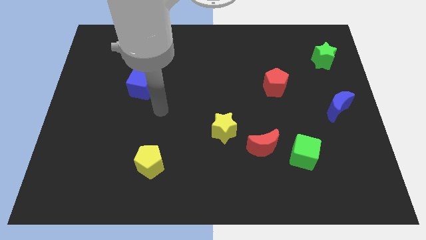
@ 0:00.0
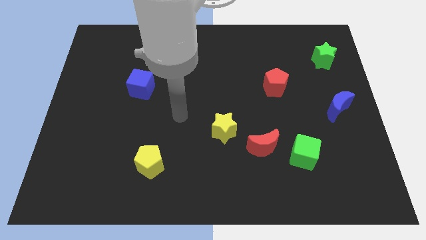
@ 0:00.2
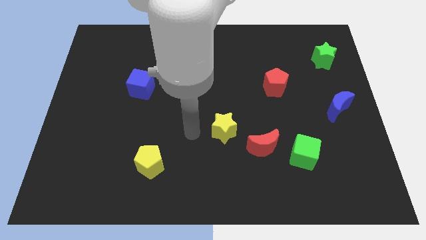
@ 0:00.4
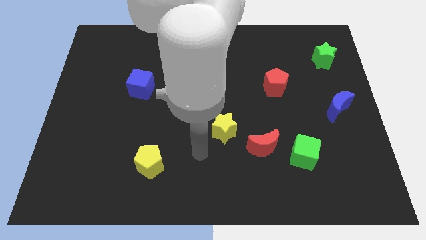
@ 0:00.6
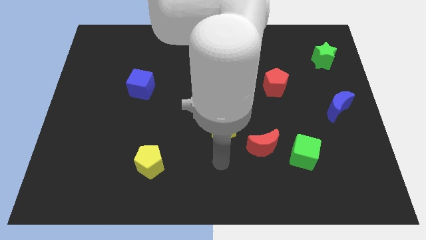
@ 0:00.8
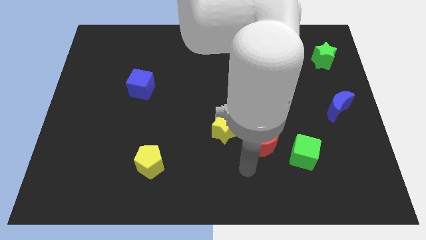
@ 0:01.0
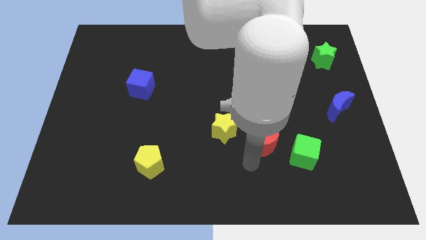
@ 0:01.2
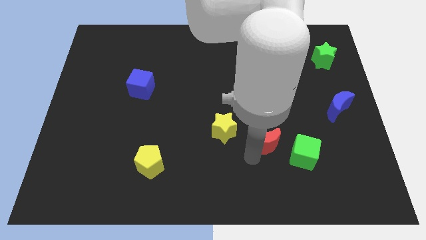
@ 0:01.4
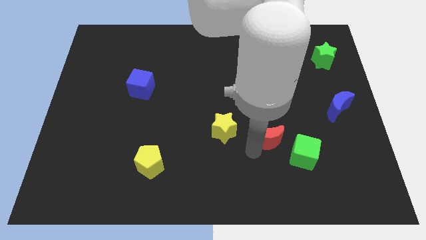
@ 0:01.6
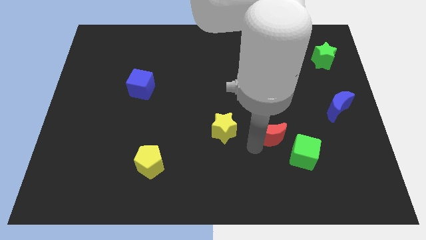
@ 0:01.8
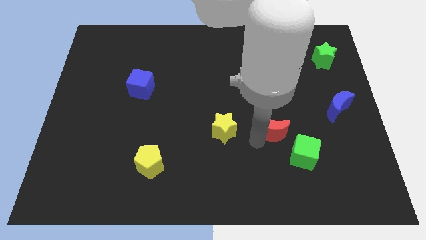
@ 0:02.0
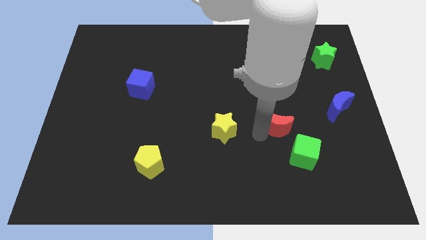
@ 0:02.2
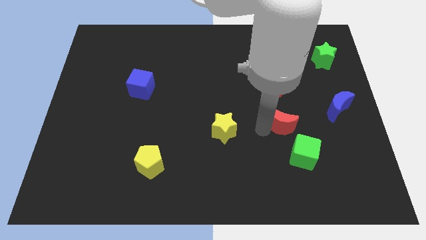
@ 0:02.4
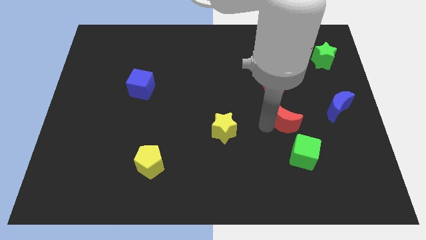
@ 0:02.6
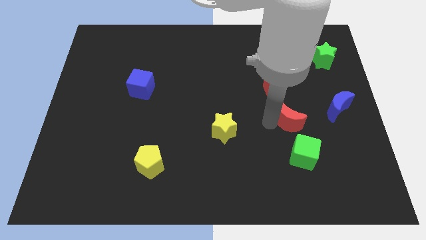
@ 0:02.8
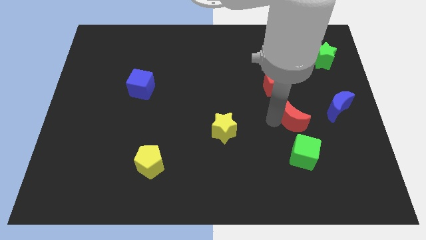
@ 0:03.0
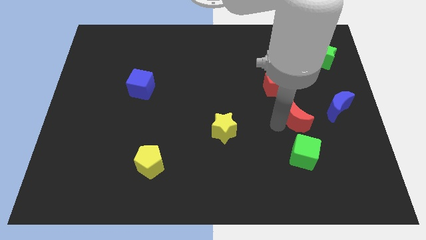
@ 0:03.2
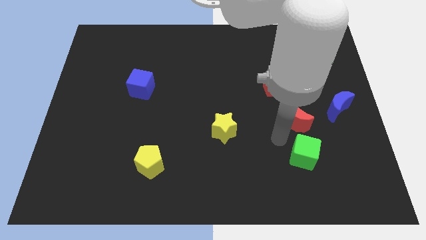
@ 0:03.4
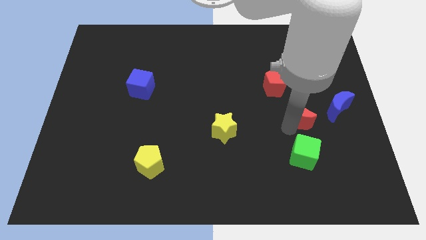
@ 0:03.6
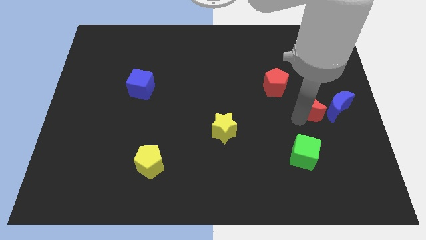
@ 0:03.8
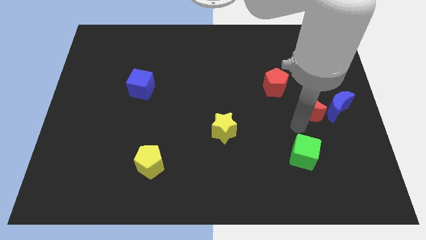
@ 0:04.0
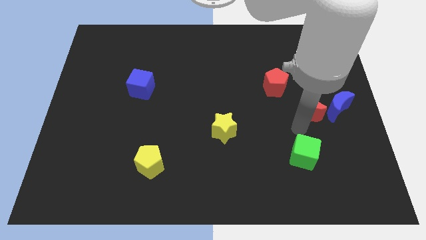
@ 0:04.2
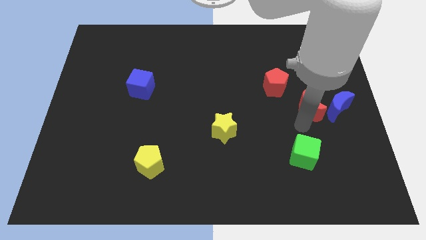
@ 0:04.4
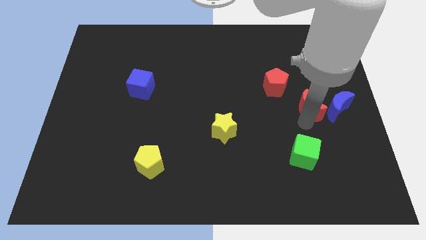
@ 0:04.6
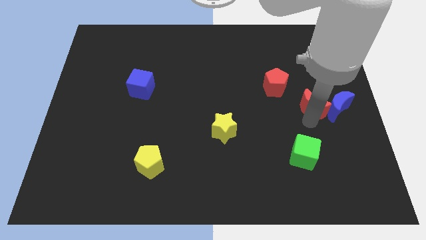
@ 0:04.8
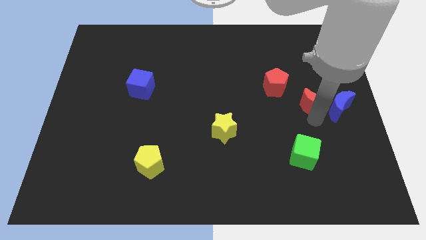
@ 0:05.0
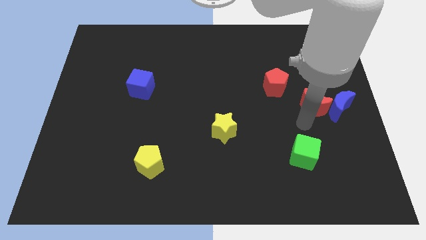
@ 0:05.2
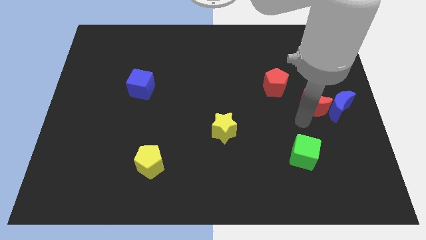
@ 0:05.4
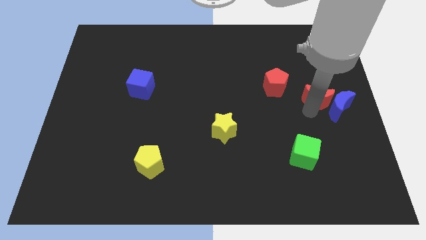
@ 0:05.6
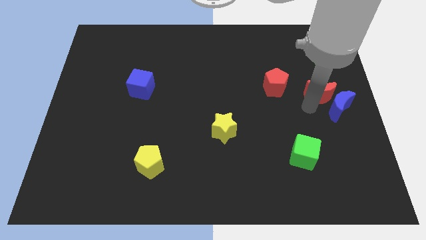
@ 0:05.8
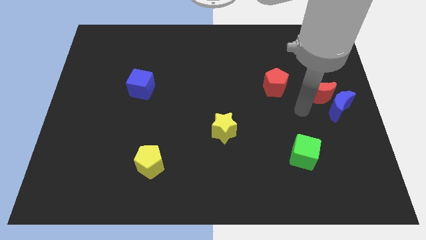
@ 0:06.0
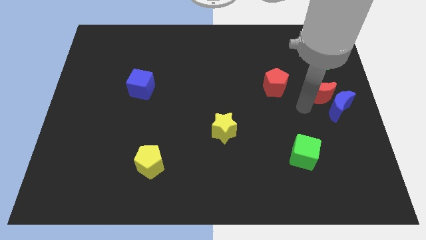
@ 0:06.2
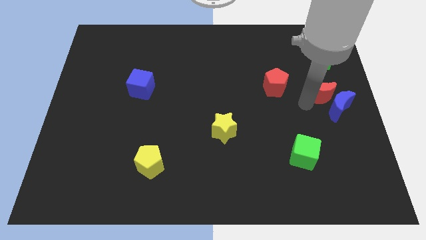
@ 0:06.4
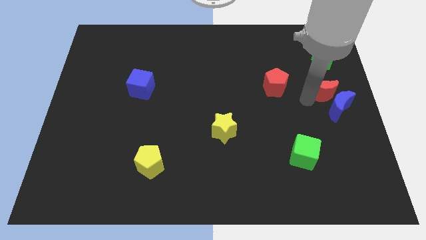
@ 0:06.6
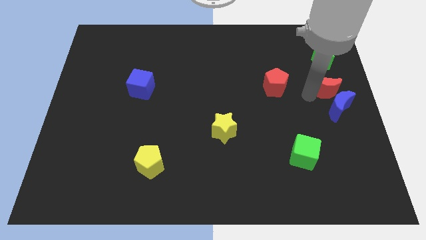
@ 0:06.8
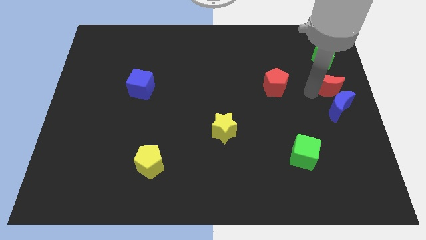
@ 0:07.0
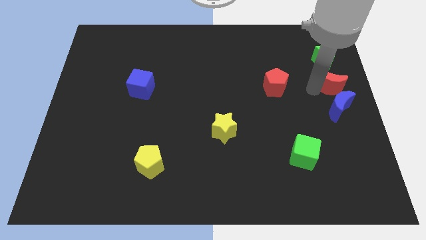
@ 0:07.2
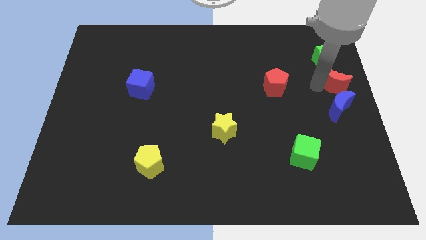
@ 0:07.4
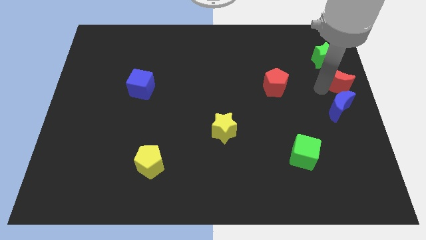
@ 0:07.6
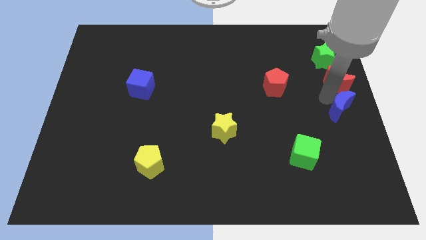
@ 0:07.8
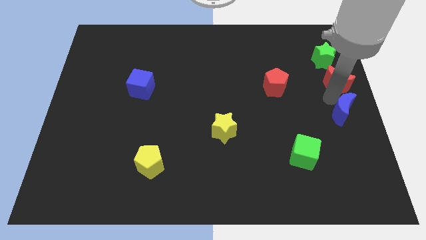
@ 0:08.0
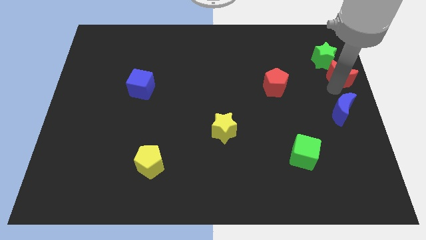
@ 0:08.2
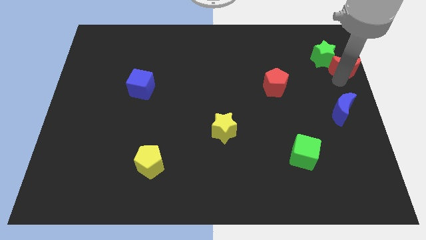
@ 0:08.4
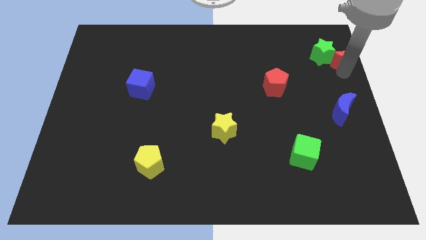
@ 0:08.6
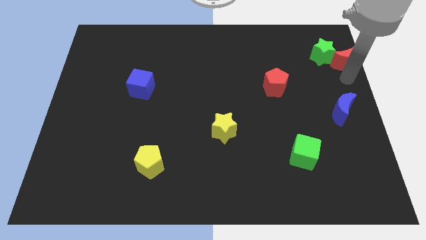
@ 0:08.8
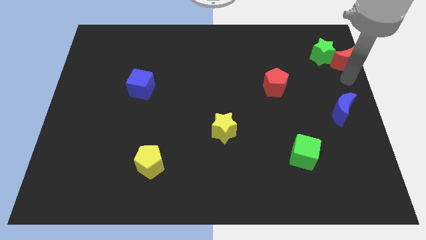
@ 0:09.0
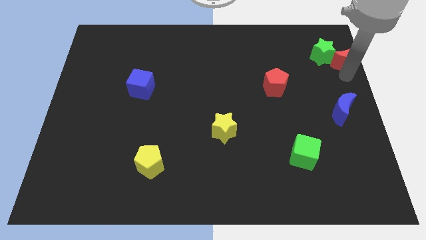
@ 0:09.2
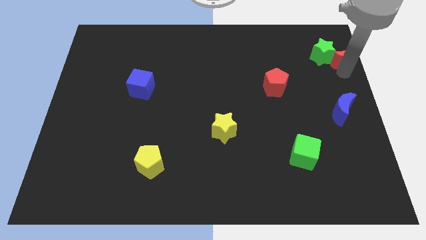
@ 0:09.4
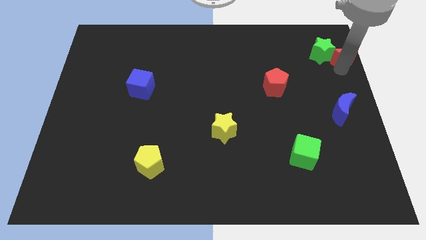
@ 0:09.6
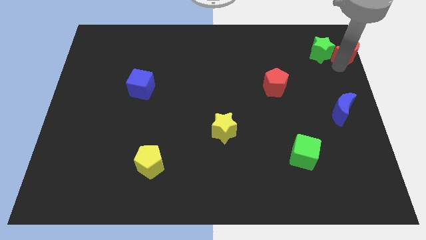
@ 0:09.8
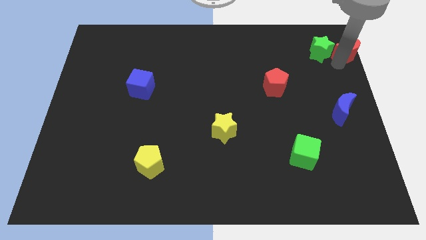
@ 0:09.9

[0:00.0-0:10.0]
put the red moon to the top right corner

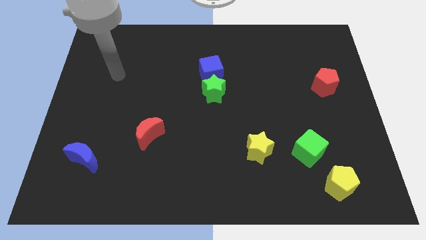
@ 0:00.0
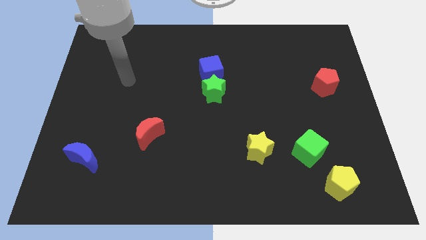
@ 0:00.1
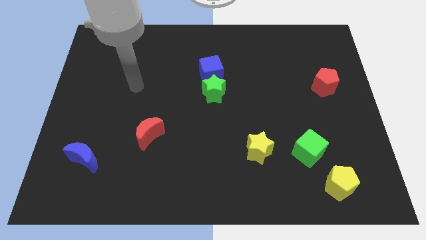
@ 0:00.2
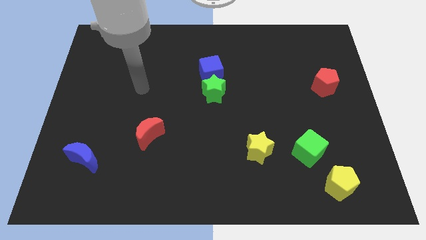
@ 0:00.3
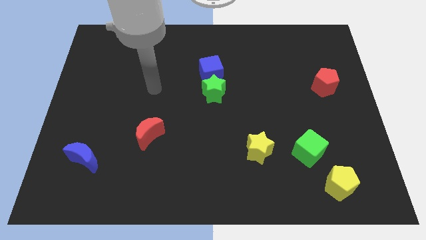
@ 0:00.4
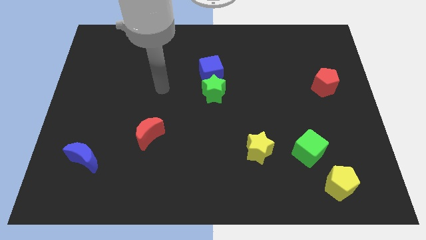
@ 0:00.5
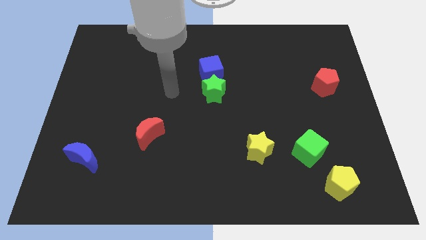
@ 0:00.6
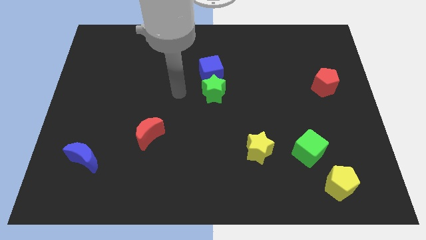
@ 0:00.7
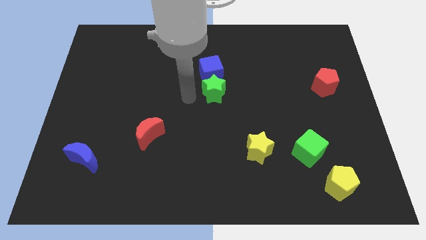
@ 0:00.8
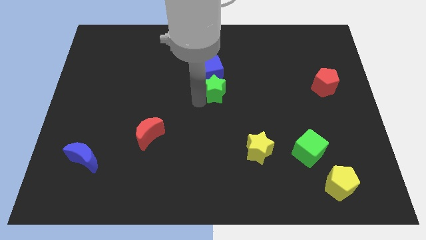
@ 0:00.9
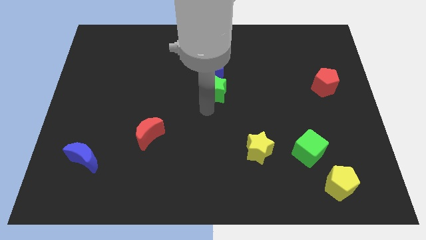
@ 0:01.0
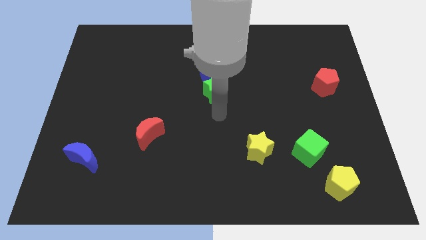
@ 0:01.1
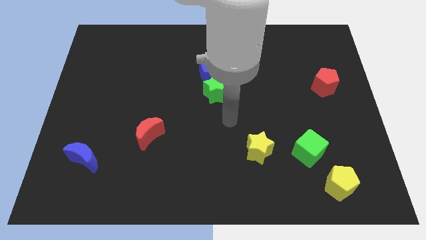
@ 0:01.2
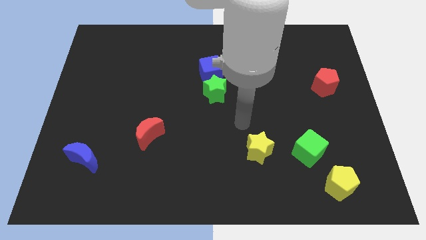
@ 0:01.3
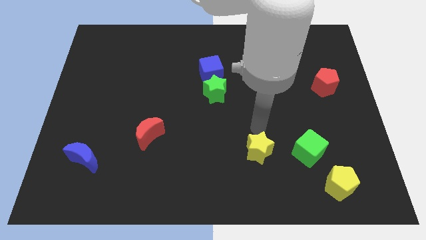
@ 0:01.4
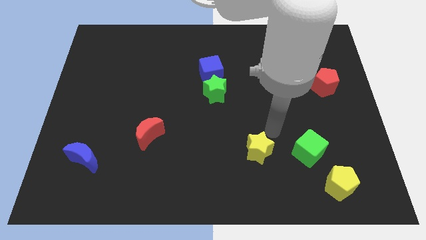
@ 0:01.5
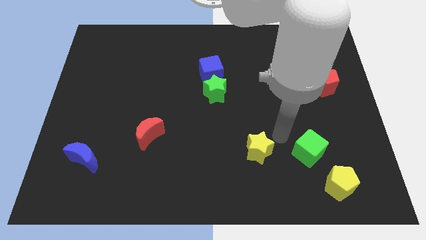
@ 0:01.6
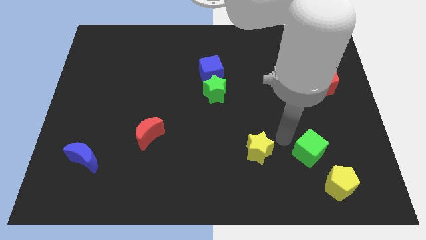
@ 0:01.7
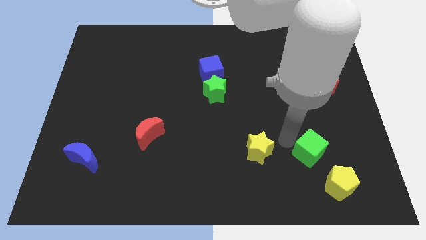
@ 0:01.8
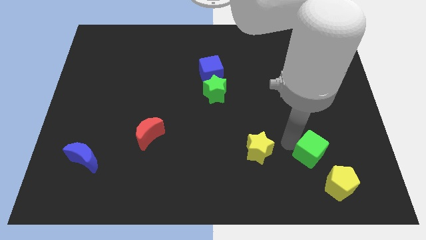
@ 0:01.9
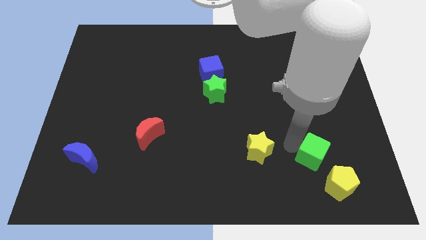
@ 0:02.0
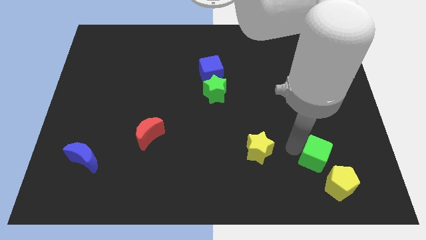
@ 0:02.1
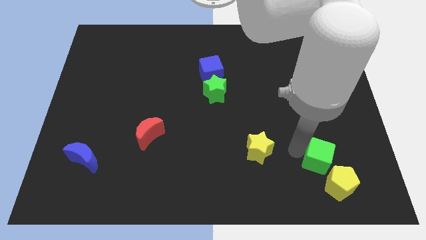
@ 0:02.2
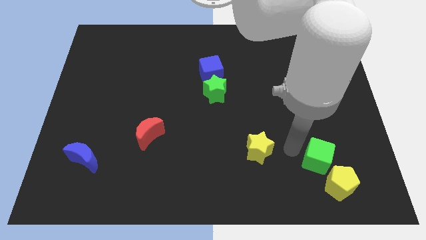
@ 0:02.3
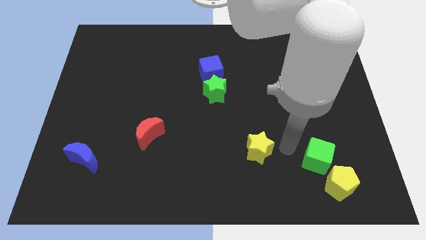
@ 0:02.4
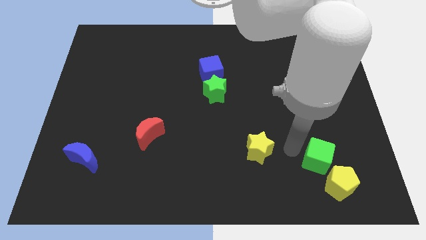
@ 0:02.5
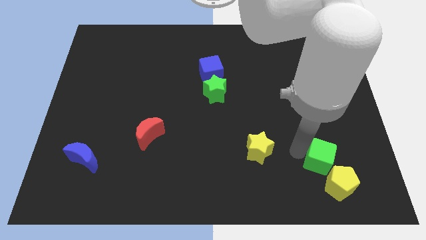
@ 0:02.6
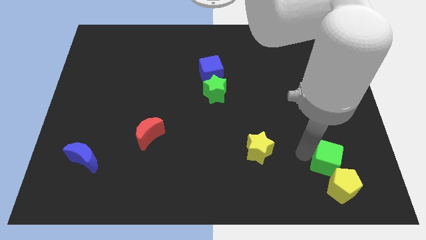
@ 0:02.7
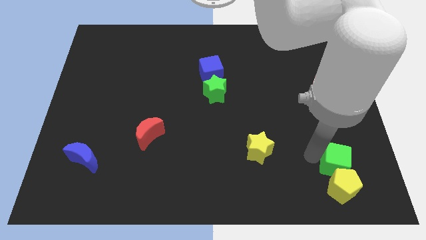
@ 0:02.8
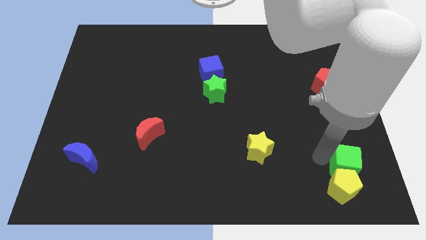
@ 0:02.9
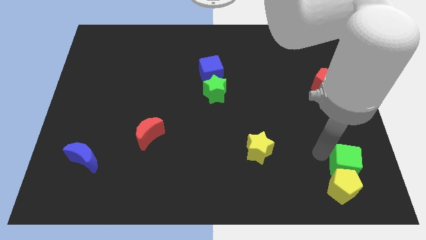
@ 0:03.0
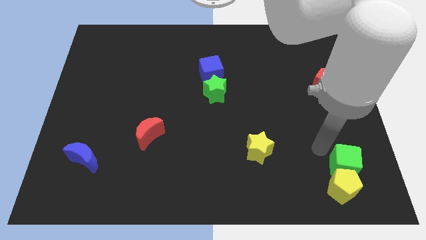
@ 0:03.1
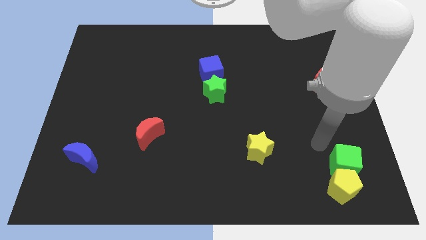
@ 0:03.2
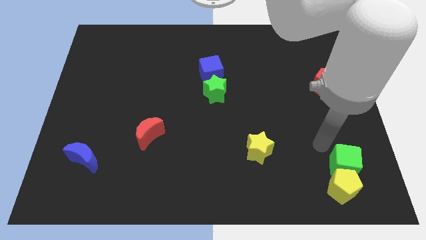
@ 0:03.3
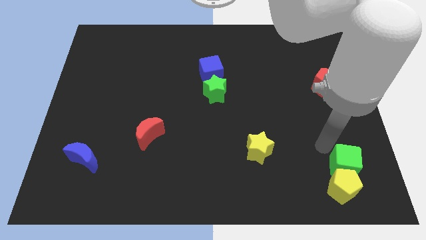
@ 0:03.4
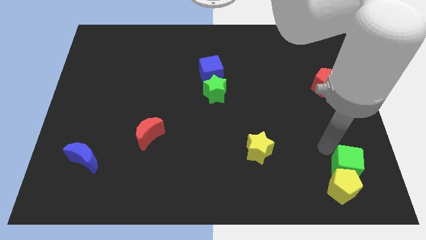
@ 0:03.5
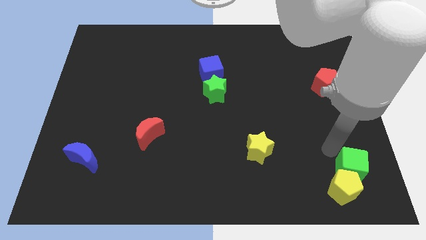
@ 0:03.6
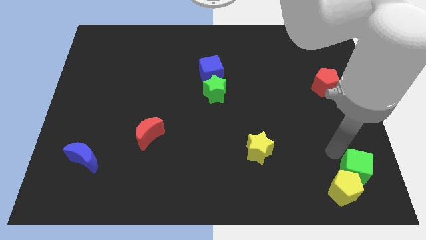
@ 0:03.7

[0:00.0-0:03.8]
push the green cube to the bottom right
